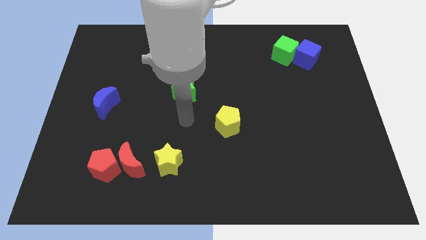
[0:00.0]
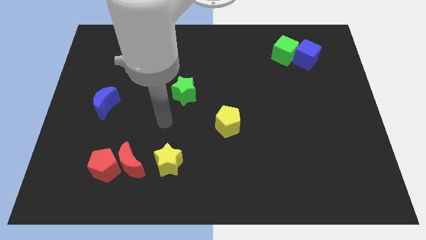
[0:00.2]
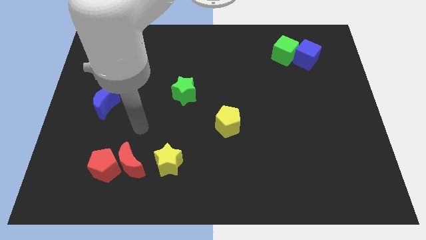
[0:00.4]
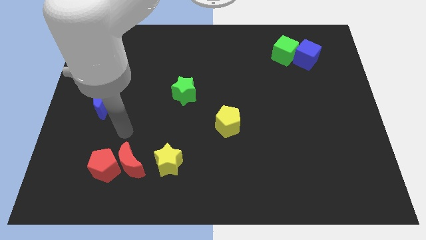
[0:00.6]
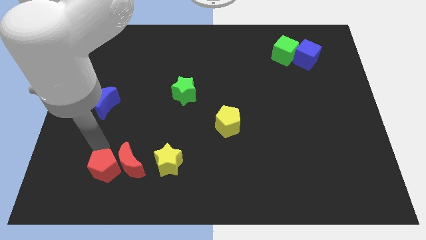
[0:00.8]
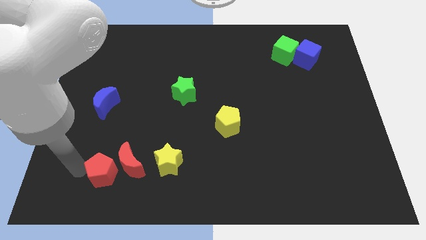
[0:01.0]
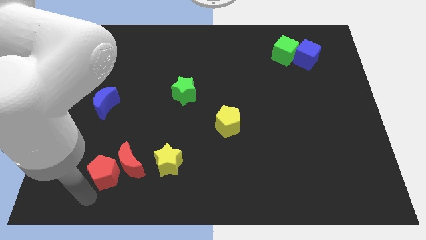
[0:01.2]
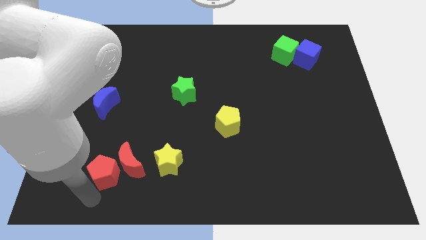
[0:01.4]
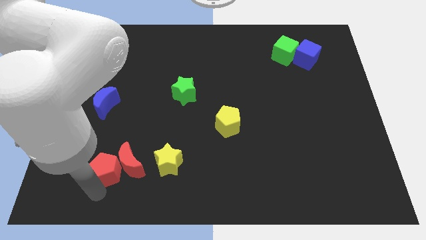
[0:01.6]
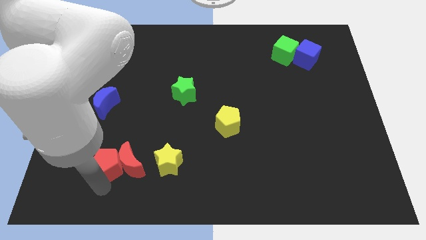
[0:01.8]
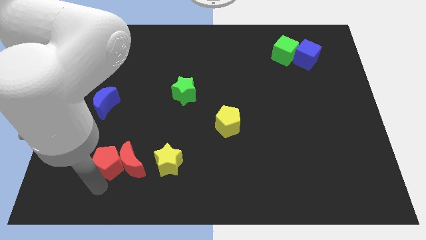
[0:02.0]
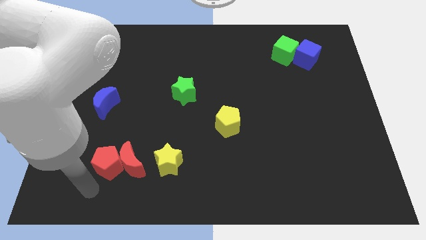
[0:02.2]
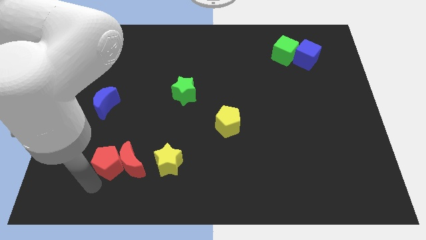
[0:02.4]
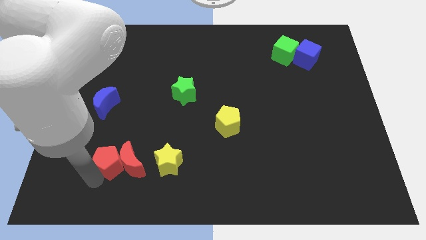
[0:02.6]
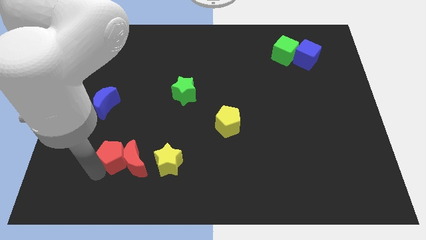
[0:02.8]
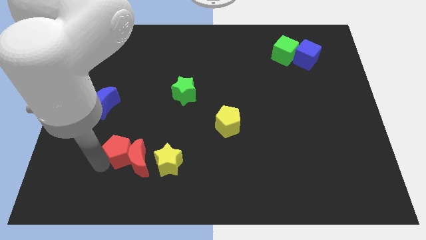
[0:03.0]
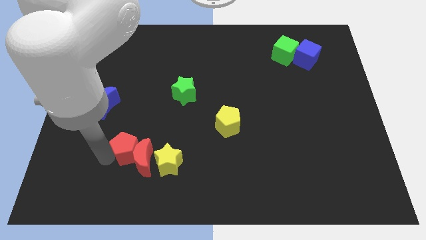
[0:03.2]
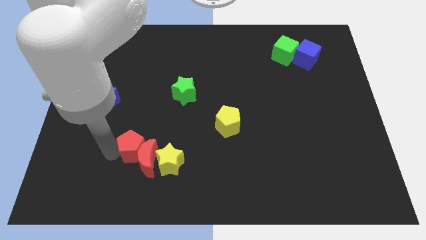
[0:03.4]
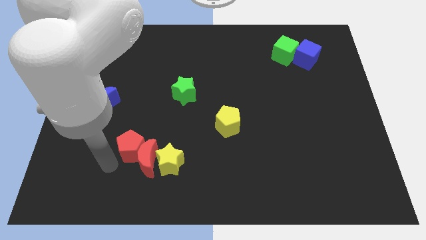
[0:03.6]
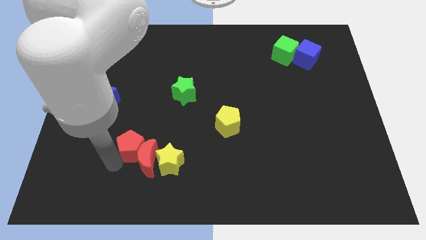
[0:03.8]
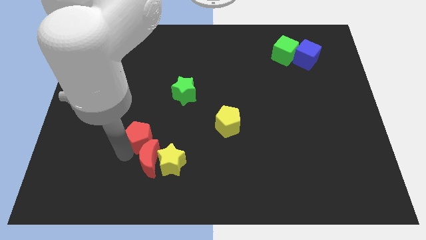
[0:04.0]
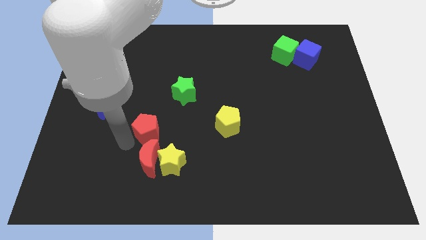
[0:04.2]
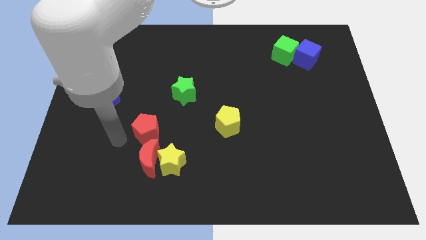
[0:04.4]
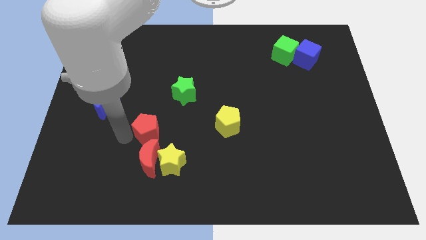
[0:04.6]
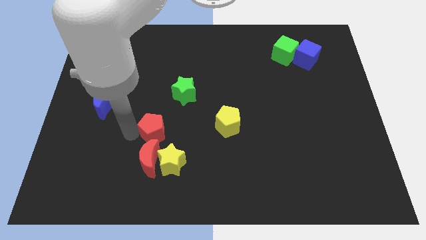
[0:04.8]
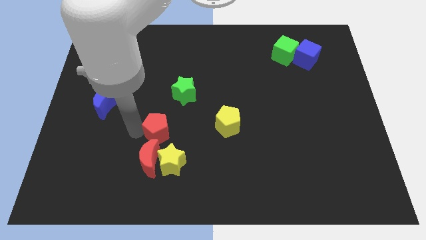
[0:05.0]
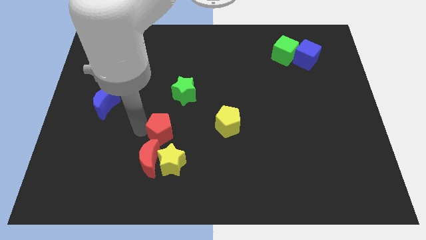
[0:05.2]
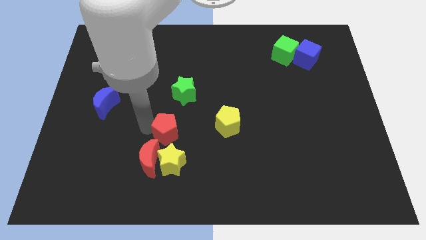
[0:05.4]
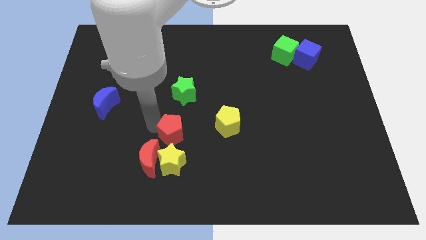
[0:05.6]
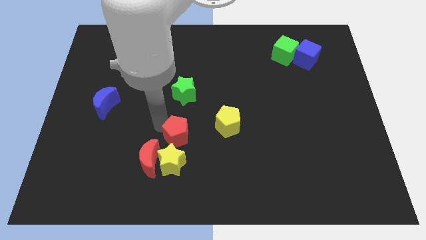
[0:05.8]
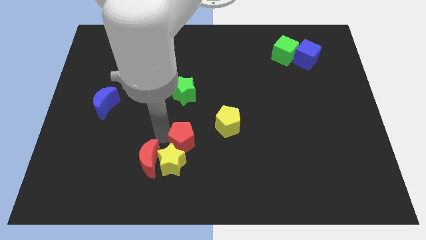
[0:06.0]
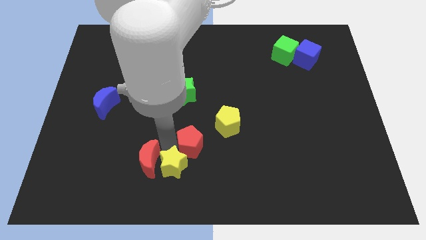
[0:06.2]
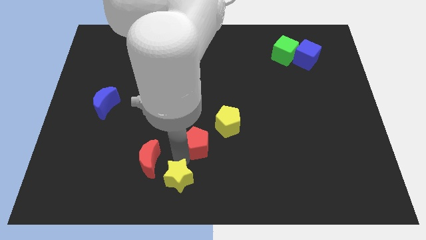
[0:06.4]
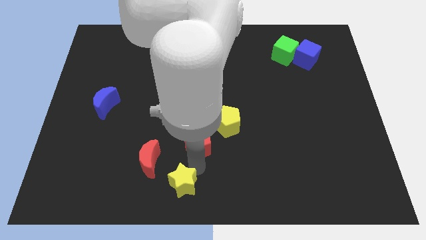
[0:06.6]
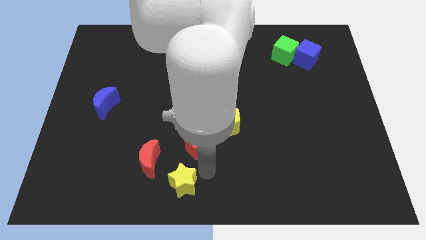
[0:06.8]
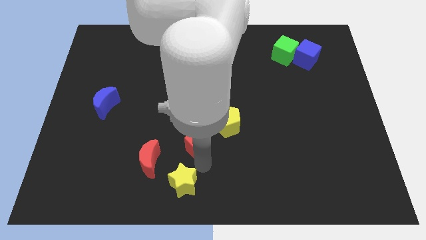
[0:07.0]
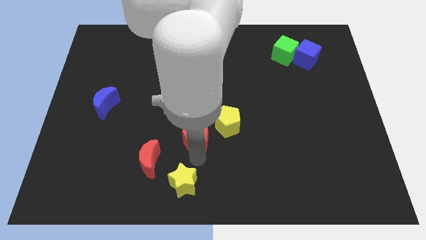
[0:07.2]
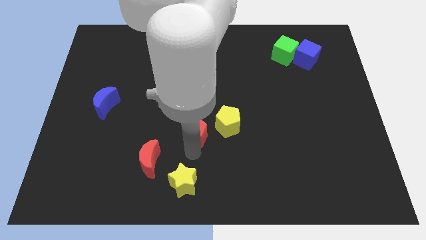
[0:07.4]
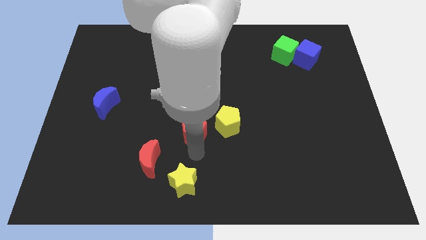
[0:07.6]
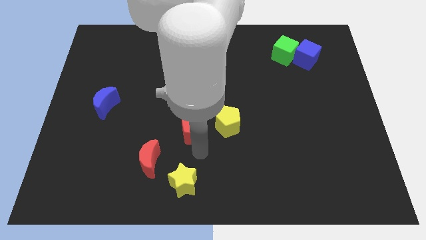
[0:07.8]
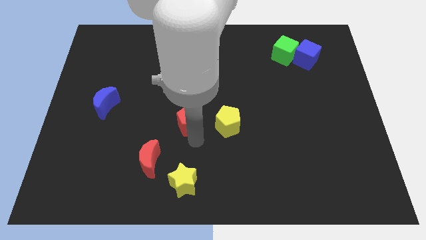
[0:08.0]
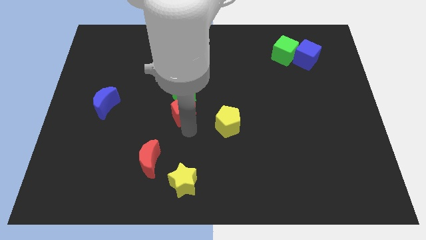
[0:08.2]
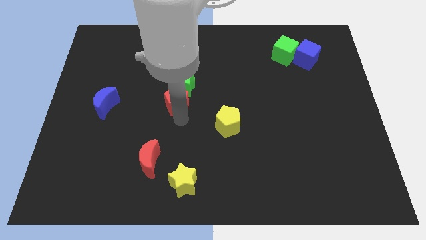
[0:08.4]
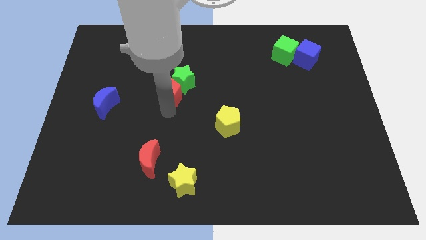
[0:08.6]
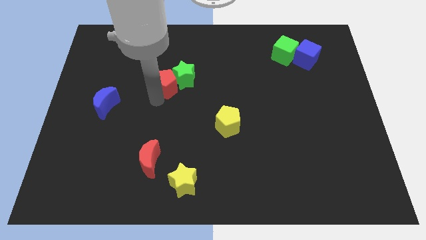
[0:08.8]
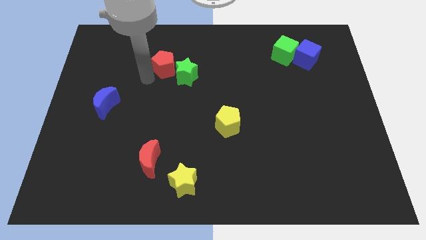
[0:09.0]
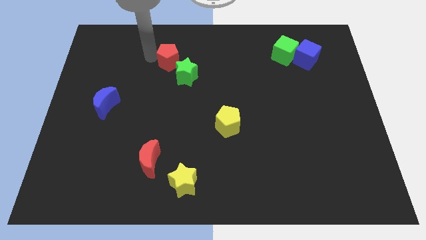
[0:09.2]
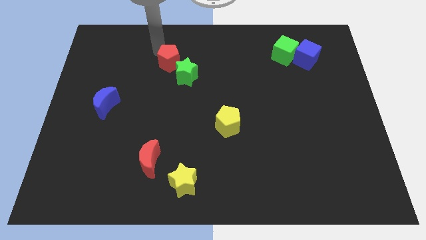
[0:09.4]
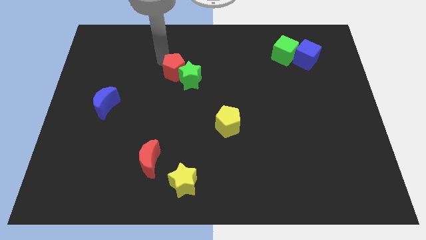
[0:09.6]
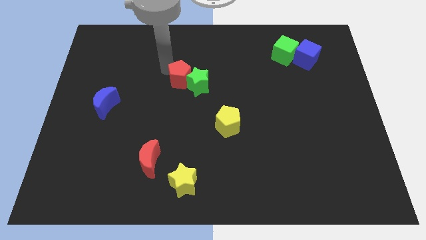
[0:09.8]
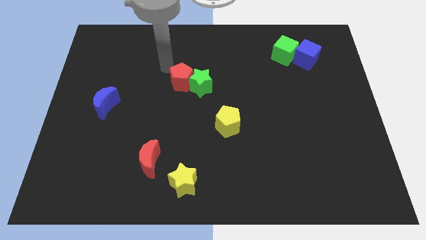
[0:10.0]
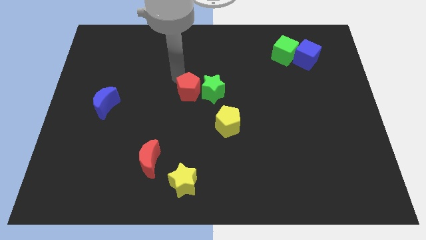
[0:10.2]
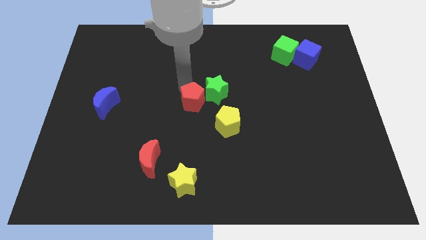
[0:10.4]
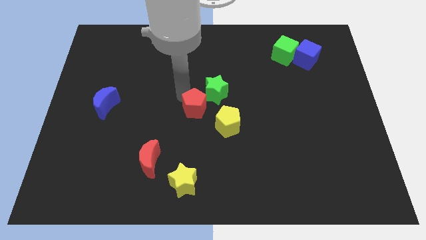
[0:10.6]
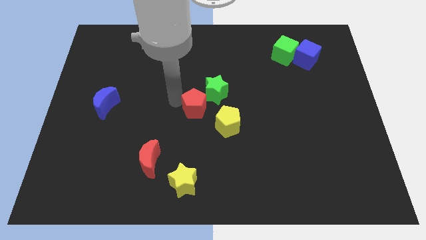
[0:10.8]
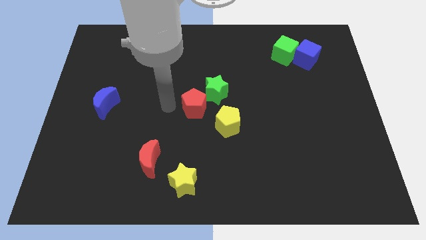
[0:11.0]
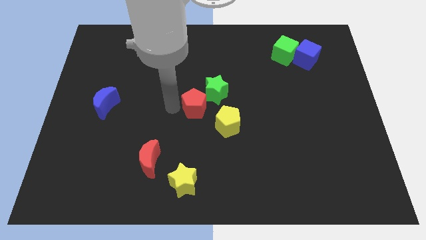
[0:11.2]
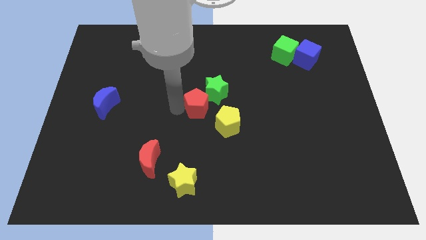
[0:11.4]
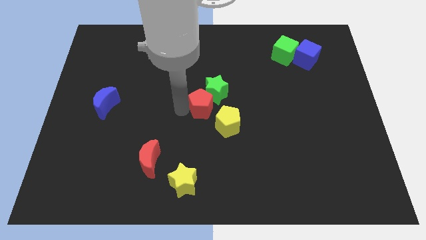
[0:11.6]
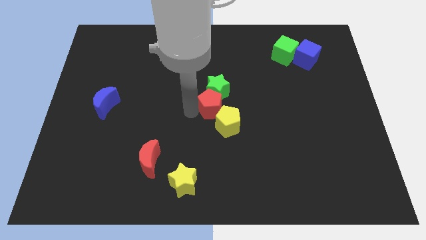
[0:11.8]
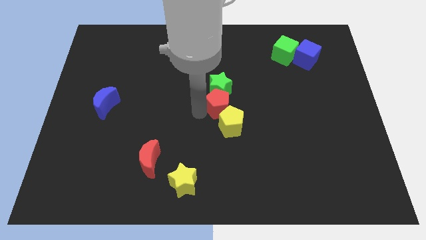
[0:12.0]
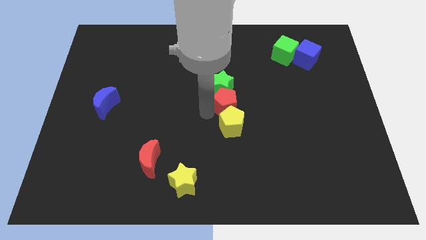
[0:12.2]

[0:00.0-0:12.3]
slide the red pentagon to the top right side of the yellow pentagon
